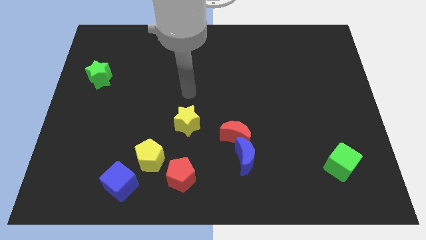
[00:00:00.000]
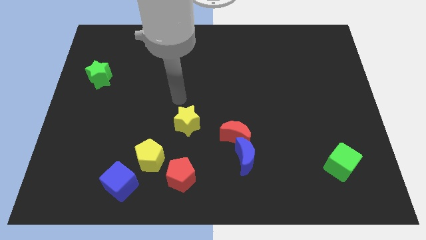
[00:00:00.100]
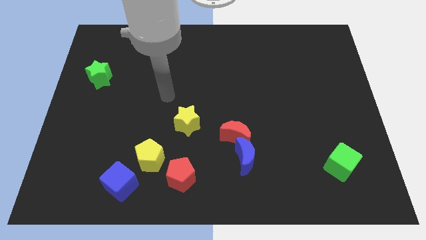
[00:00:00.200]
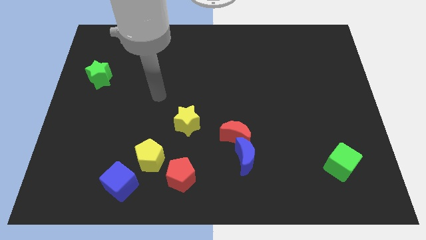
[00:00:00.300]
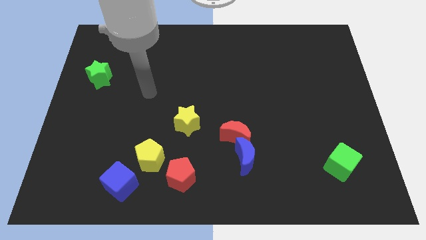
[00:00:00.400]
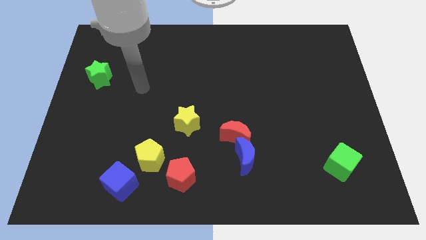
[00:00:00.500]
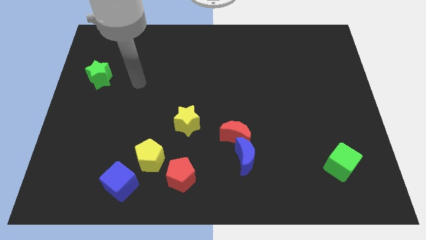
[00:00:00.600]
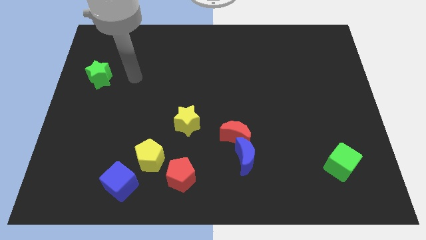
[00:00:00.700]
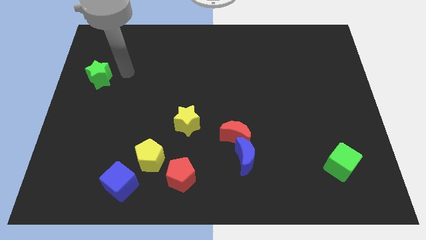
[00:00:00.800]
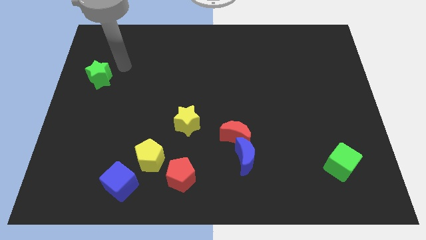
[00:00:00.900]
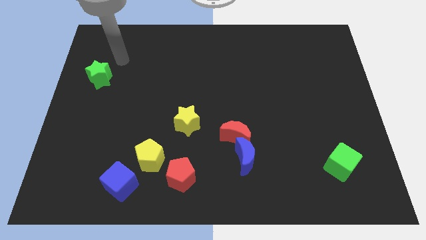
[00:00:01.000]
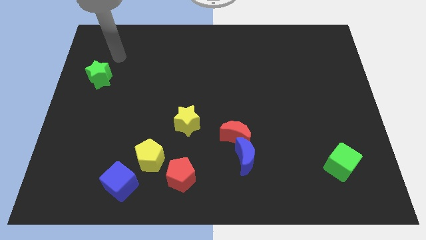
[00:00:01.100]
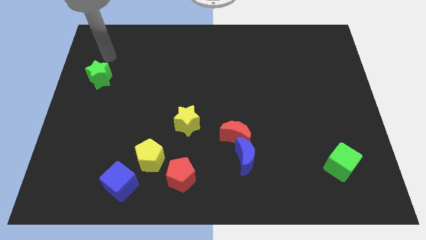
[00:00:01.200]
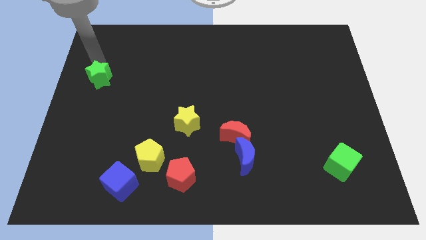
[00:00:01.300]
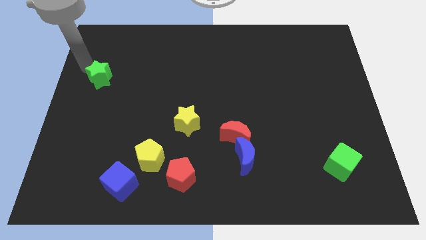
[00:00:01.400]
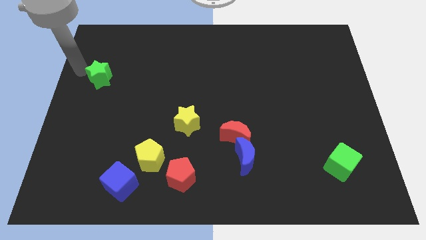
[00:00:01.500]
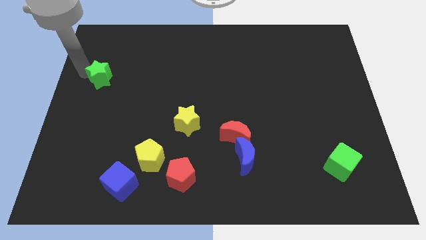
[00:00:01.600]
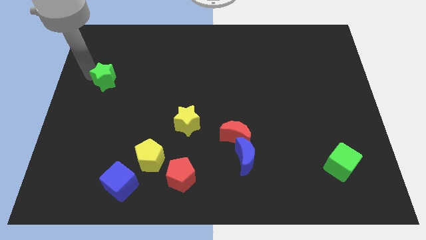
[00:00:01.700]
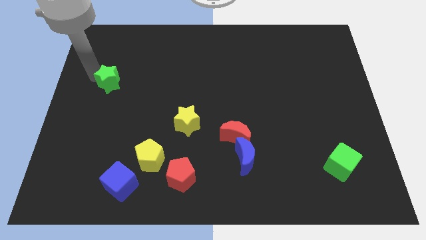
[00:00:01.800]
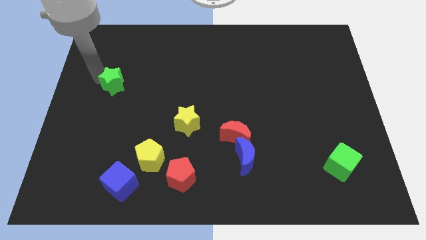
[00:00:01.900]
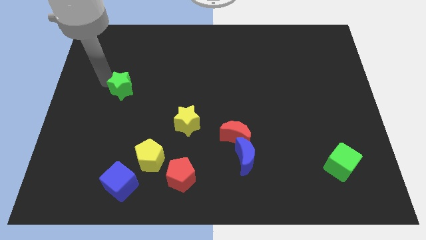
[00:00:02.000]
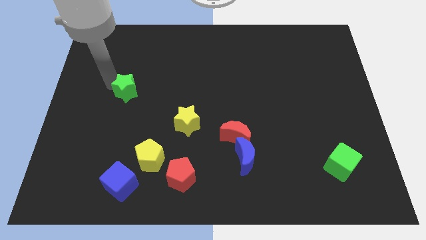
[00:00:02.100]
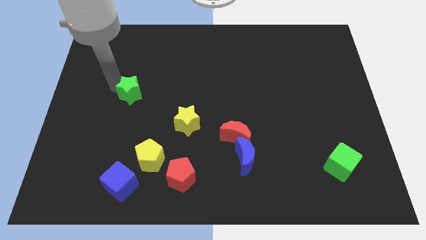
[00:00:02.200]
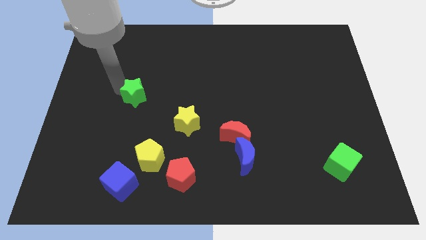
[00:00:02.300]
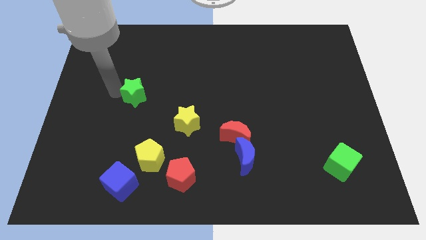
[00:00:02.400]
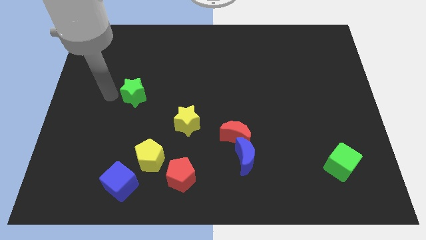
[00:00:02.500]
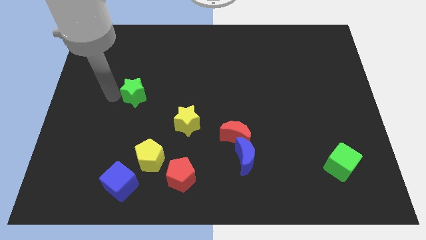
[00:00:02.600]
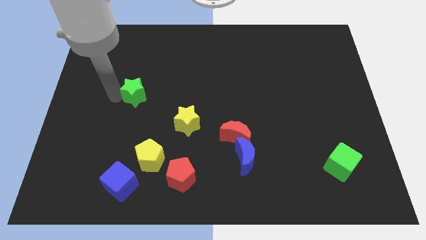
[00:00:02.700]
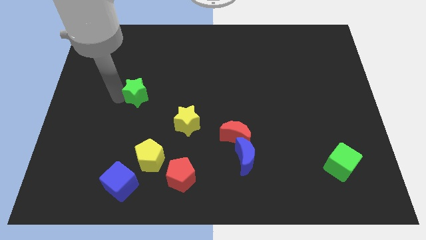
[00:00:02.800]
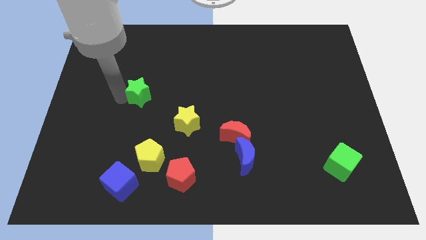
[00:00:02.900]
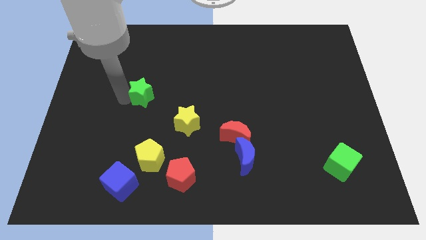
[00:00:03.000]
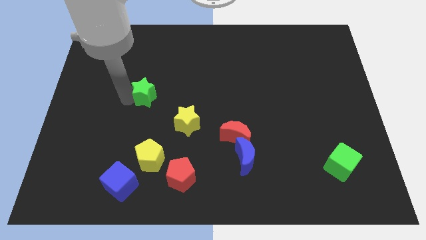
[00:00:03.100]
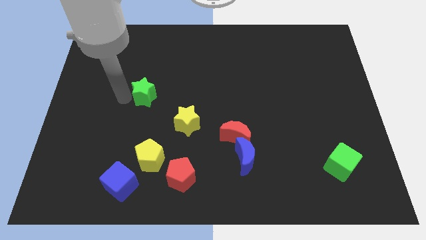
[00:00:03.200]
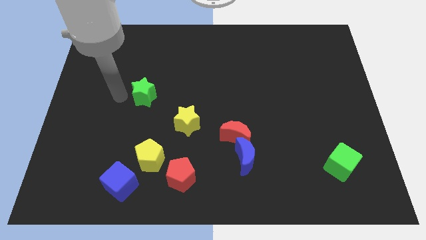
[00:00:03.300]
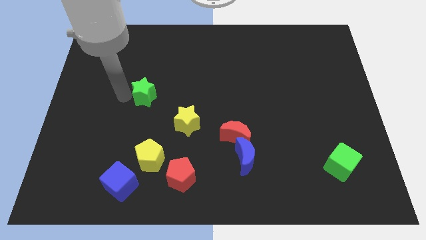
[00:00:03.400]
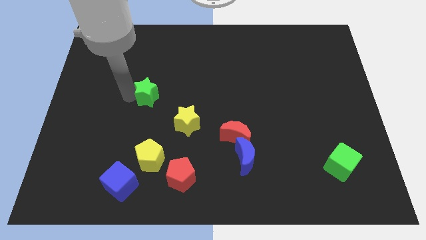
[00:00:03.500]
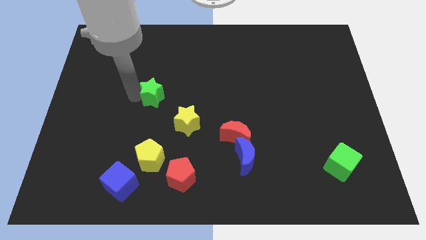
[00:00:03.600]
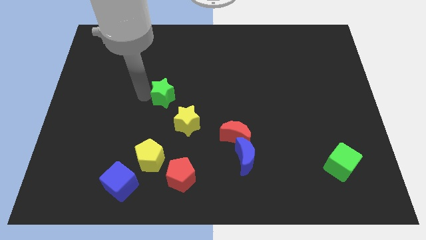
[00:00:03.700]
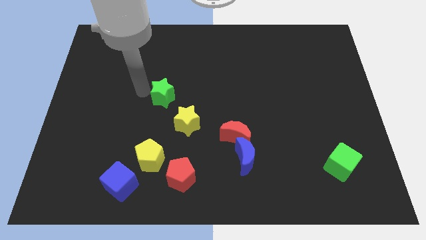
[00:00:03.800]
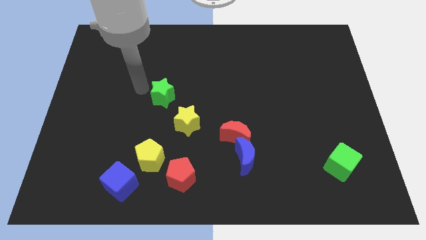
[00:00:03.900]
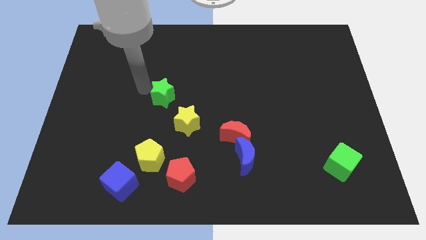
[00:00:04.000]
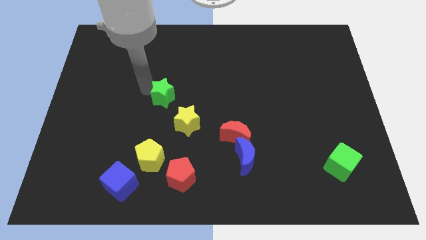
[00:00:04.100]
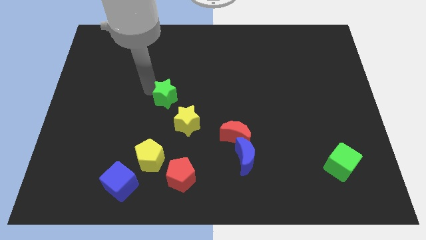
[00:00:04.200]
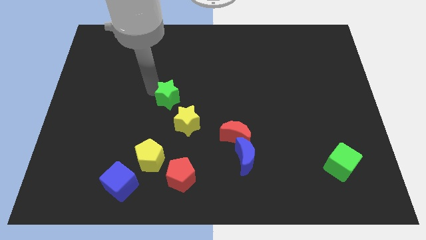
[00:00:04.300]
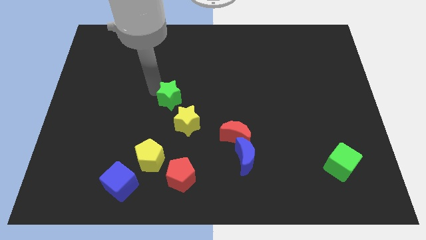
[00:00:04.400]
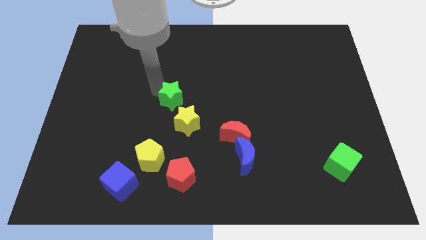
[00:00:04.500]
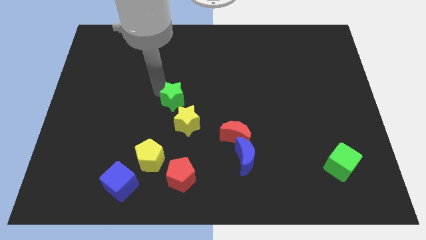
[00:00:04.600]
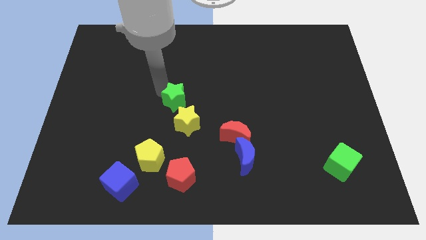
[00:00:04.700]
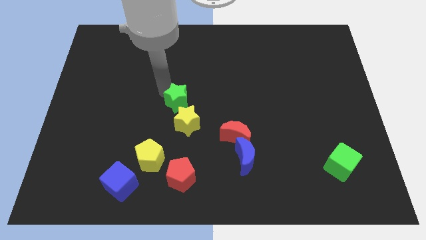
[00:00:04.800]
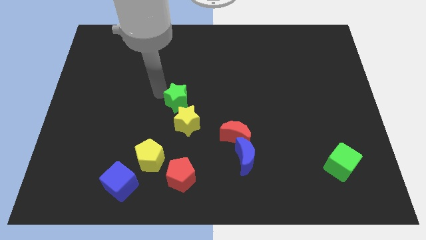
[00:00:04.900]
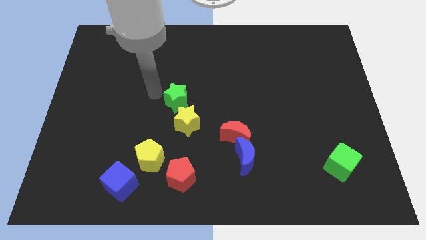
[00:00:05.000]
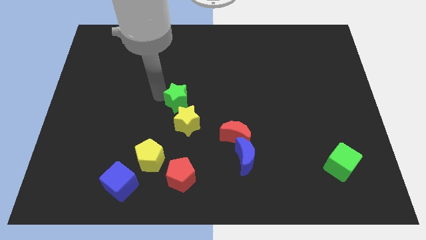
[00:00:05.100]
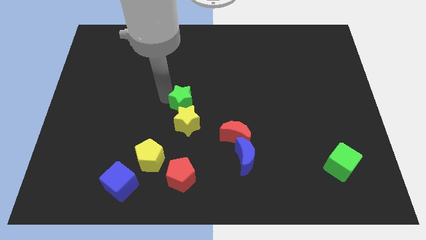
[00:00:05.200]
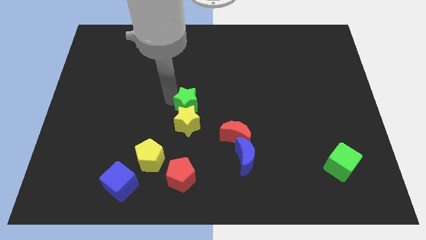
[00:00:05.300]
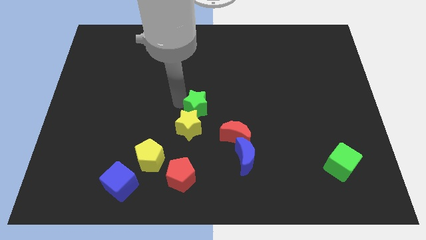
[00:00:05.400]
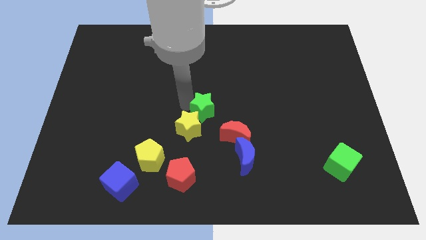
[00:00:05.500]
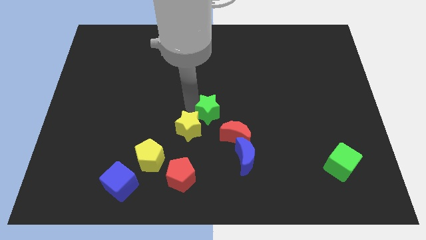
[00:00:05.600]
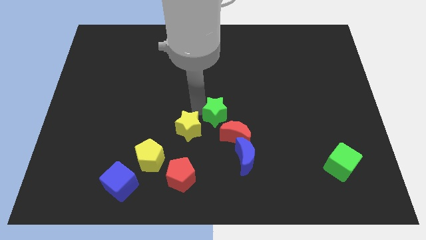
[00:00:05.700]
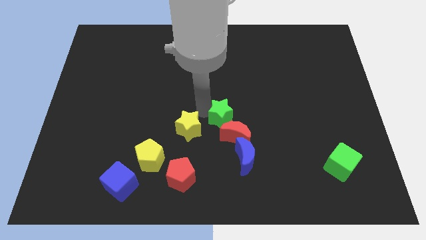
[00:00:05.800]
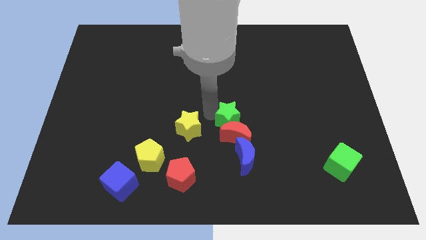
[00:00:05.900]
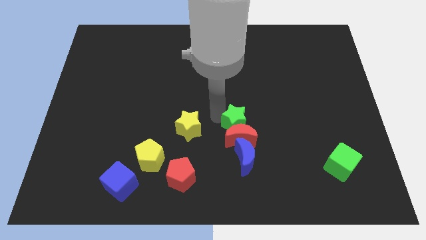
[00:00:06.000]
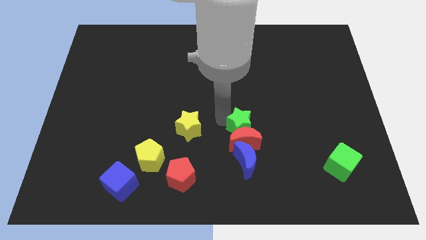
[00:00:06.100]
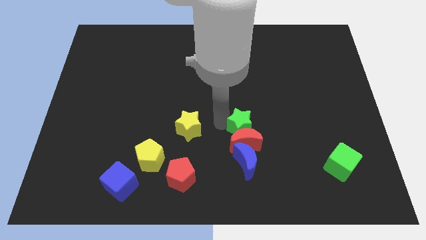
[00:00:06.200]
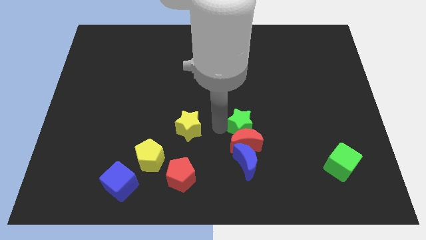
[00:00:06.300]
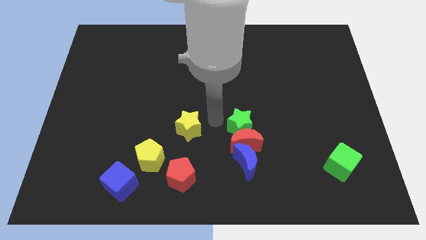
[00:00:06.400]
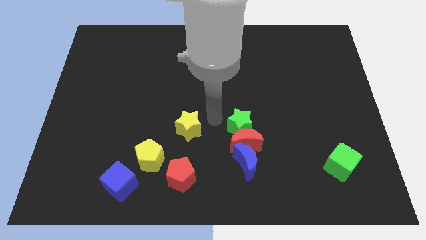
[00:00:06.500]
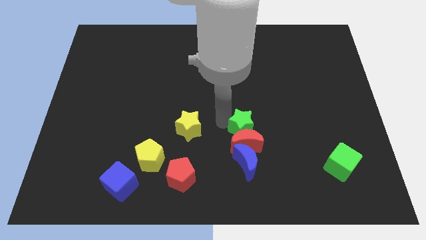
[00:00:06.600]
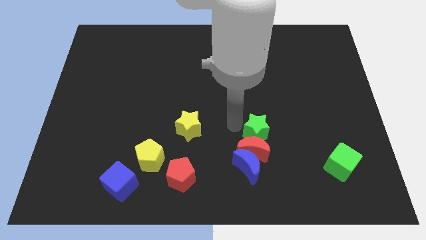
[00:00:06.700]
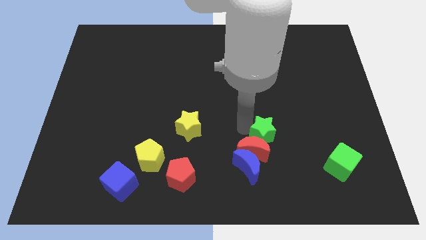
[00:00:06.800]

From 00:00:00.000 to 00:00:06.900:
push the green star just right of the red moon
